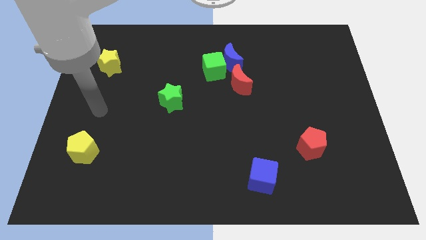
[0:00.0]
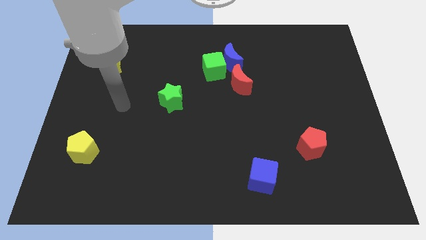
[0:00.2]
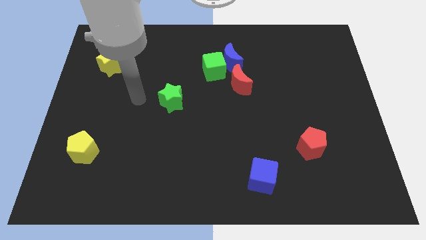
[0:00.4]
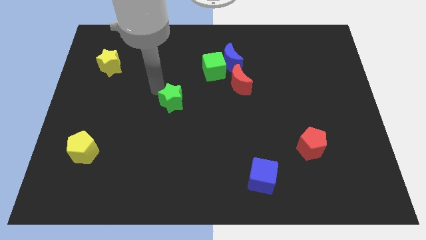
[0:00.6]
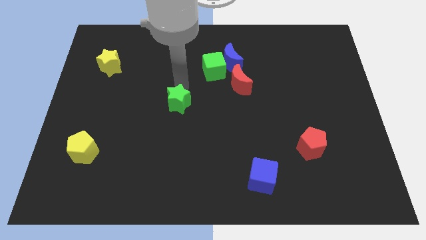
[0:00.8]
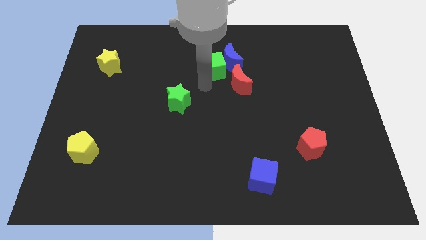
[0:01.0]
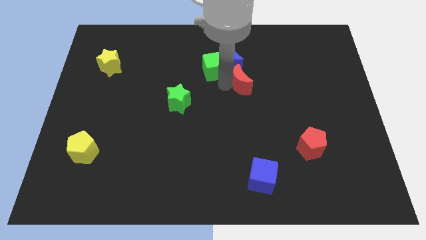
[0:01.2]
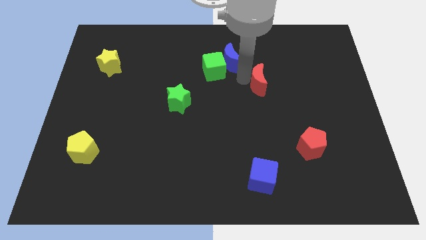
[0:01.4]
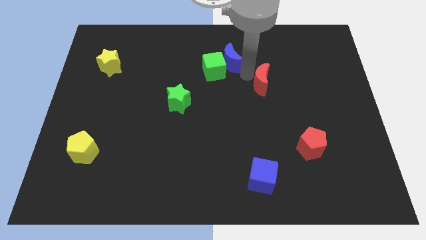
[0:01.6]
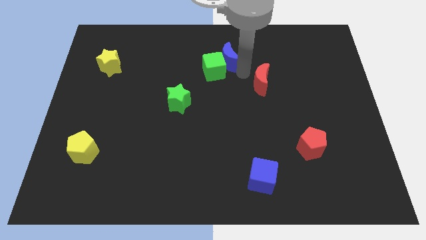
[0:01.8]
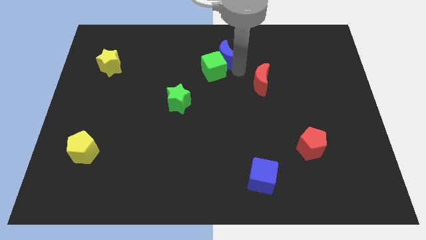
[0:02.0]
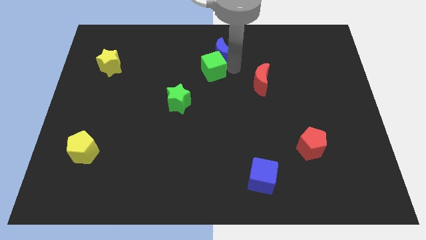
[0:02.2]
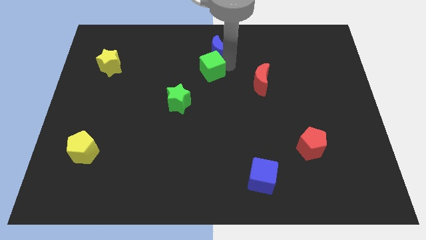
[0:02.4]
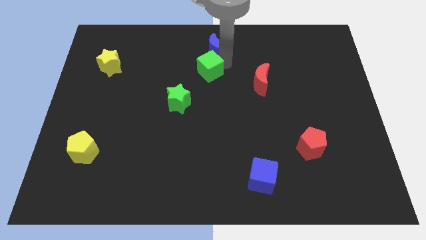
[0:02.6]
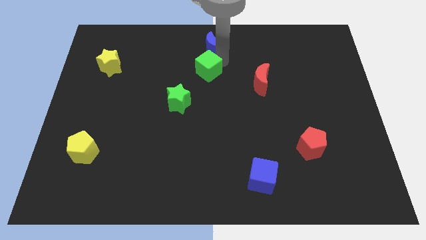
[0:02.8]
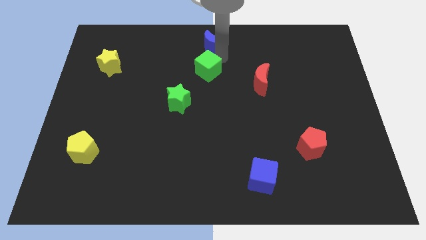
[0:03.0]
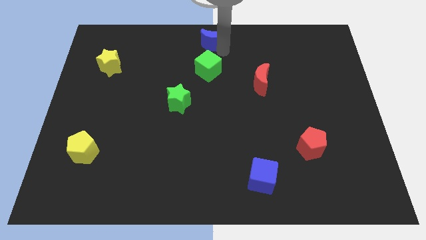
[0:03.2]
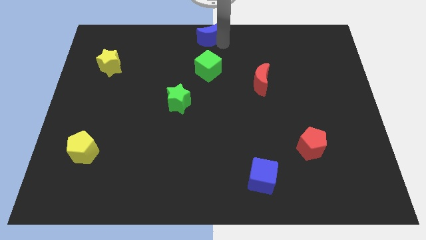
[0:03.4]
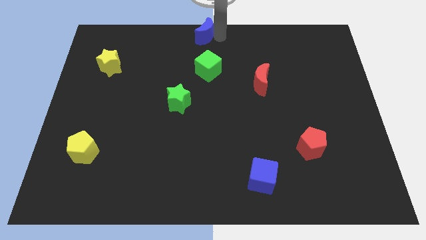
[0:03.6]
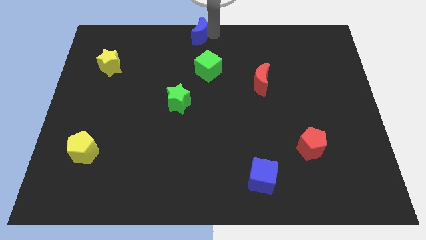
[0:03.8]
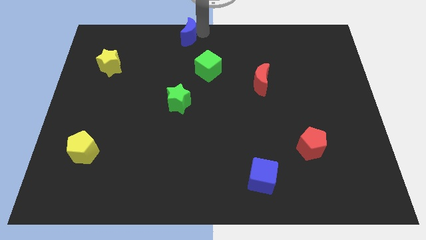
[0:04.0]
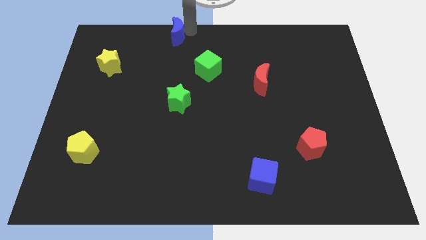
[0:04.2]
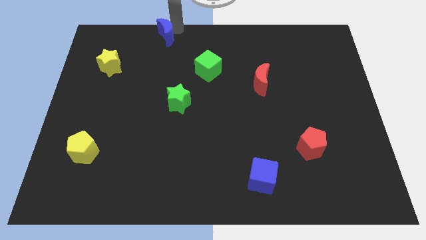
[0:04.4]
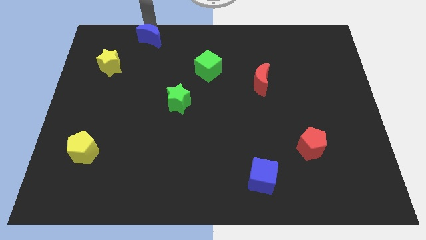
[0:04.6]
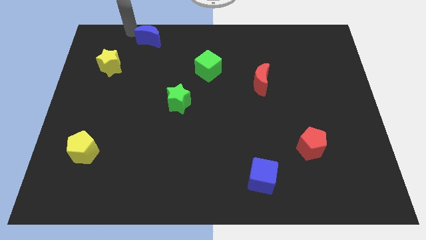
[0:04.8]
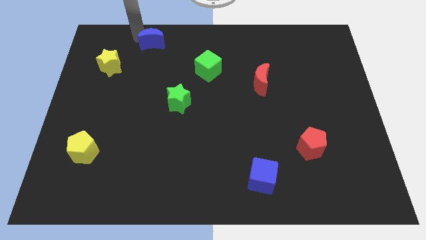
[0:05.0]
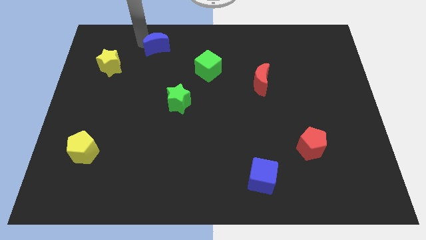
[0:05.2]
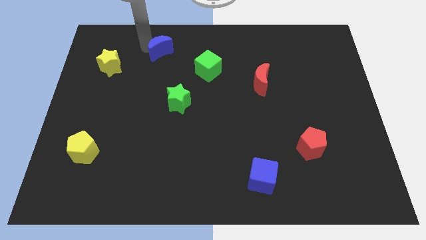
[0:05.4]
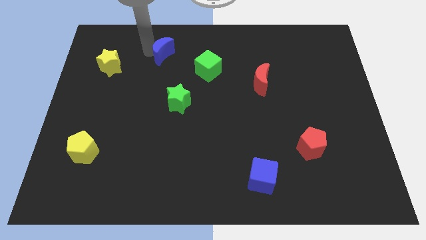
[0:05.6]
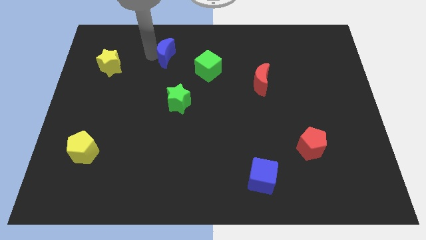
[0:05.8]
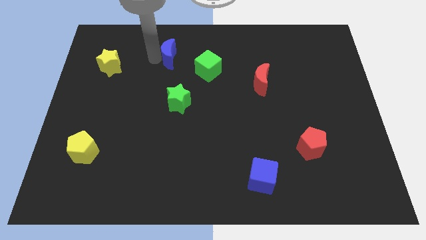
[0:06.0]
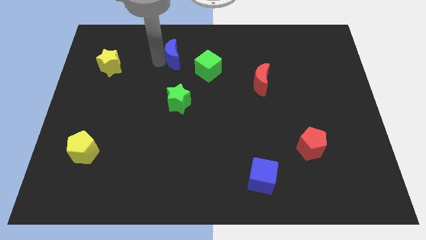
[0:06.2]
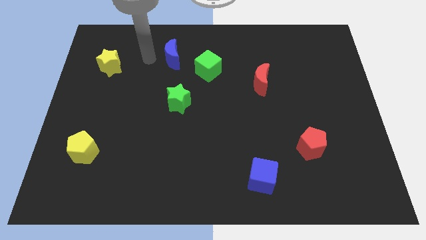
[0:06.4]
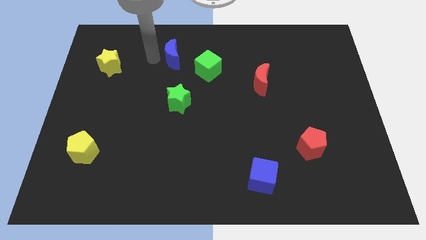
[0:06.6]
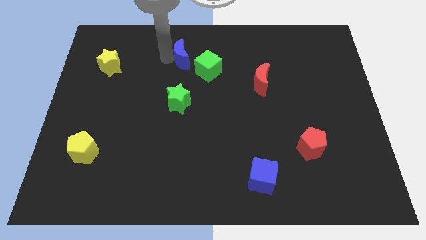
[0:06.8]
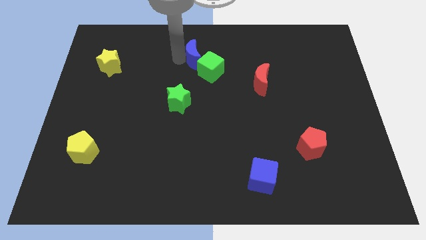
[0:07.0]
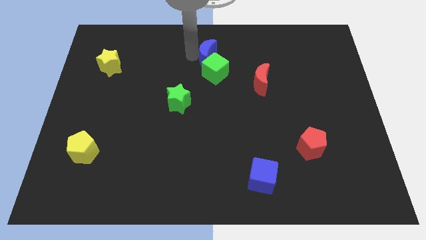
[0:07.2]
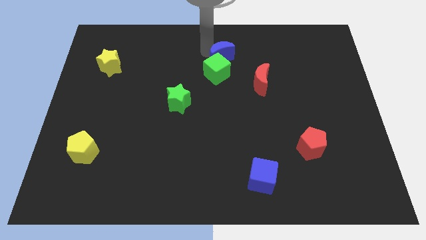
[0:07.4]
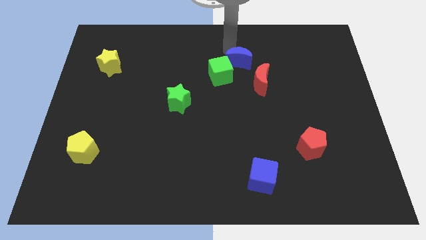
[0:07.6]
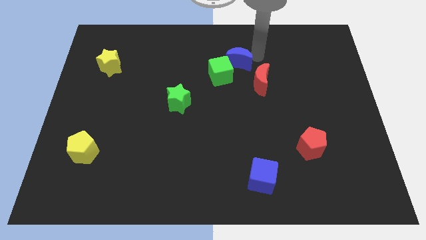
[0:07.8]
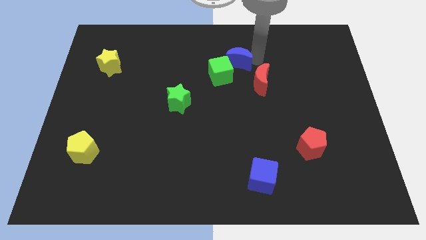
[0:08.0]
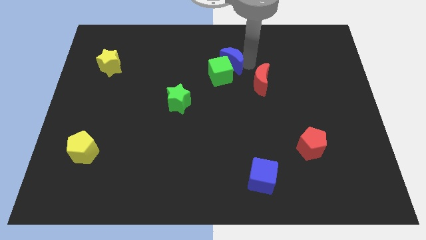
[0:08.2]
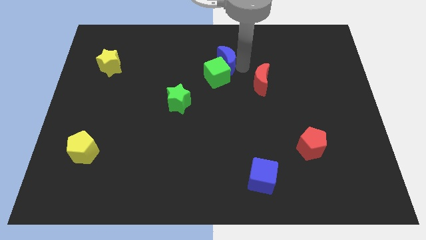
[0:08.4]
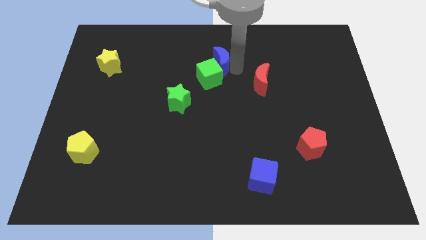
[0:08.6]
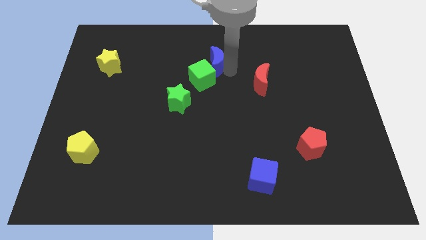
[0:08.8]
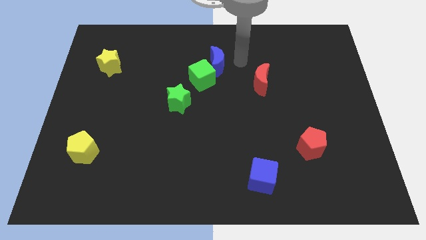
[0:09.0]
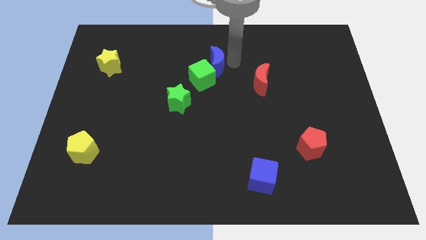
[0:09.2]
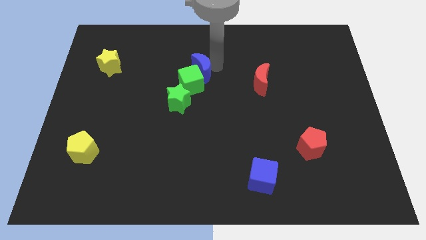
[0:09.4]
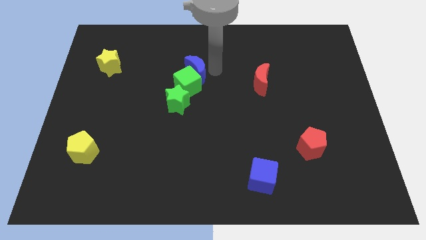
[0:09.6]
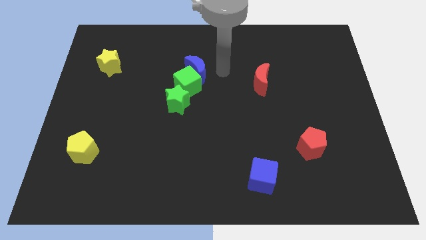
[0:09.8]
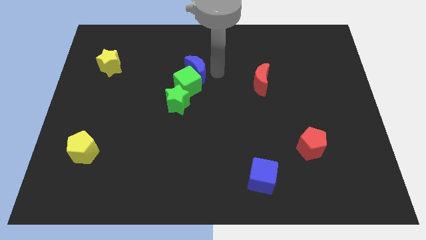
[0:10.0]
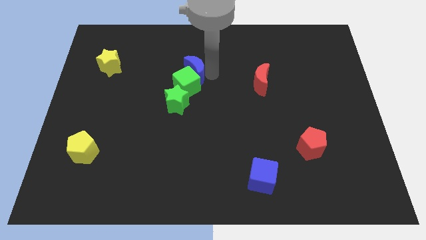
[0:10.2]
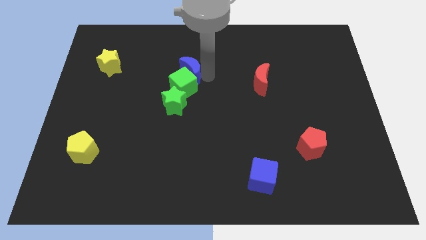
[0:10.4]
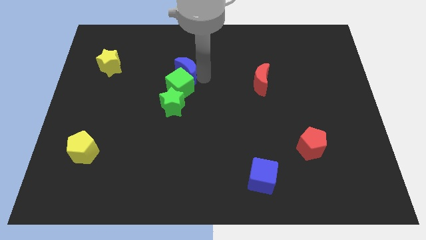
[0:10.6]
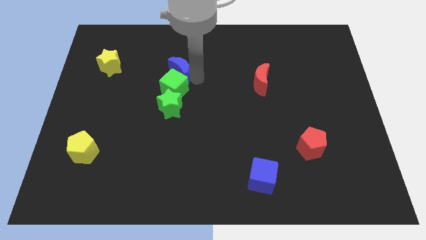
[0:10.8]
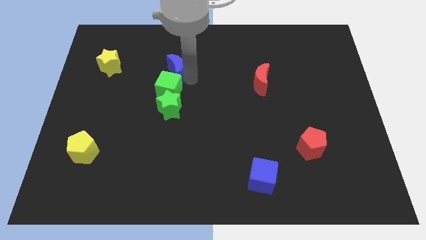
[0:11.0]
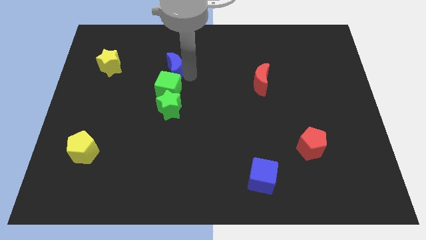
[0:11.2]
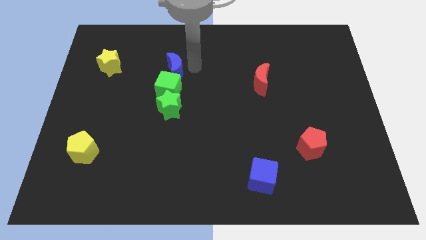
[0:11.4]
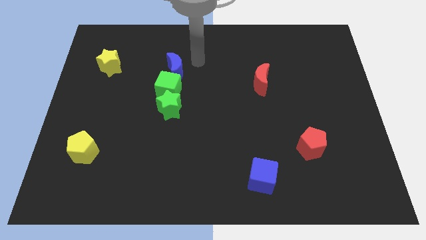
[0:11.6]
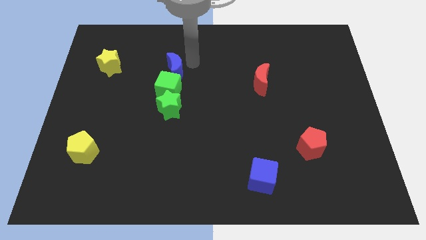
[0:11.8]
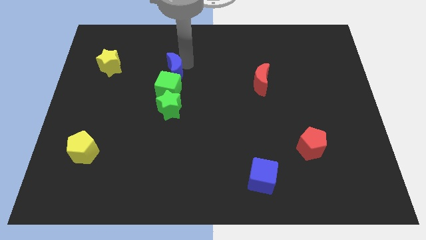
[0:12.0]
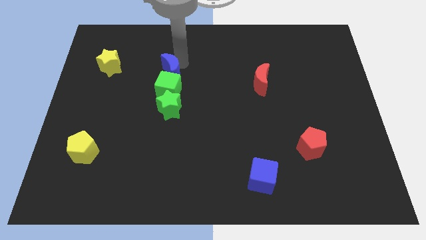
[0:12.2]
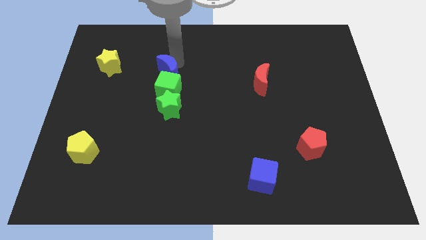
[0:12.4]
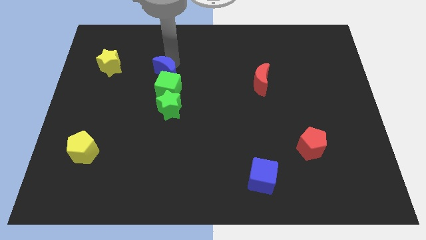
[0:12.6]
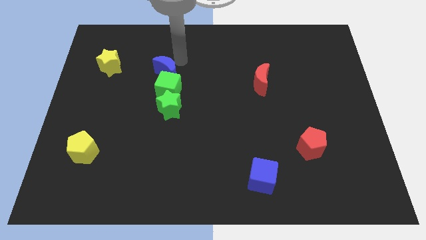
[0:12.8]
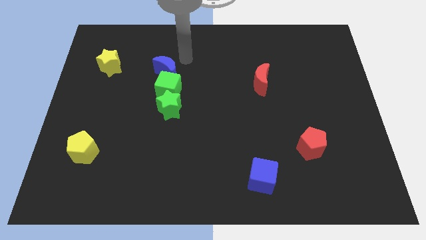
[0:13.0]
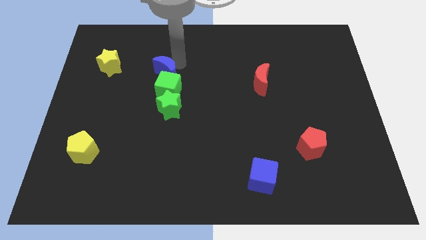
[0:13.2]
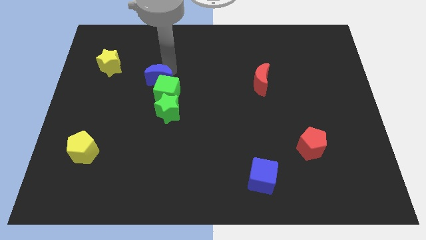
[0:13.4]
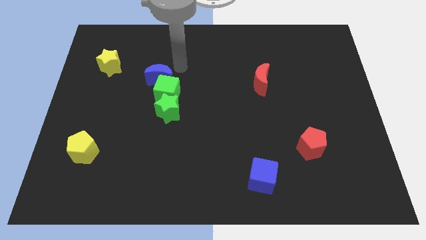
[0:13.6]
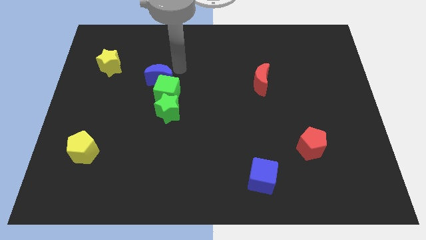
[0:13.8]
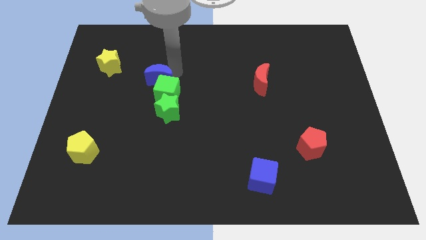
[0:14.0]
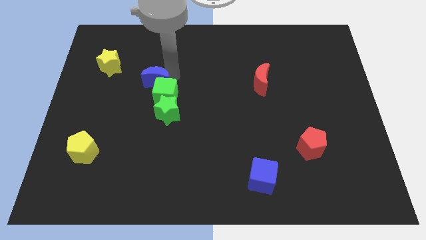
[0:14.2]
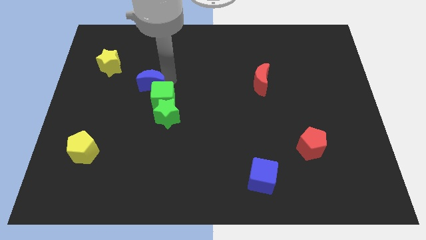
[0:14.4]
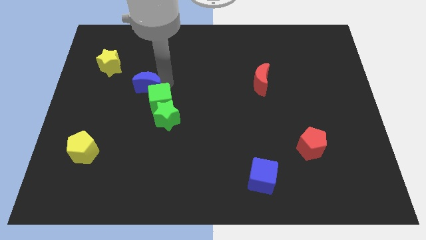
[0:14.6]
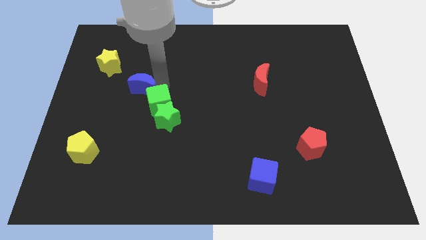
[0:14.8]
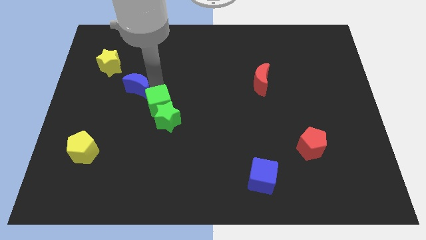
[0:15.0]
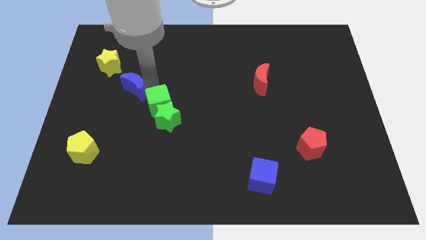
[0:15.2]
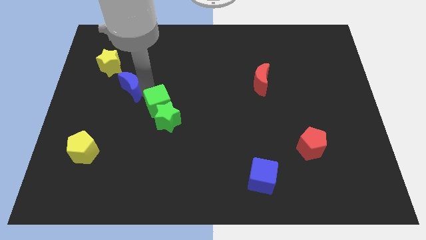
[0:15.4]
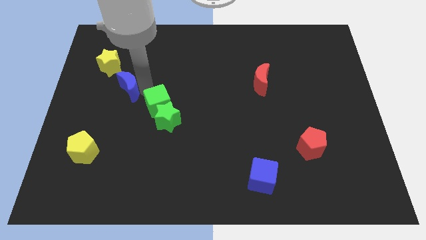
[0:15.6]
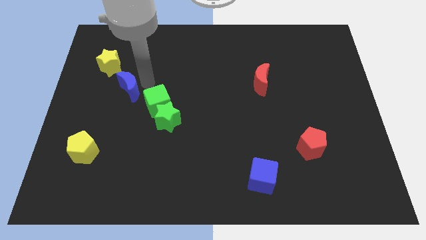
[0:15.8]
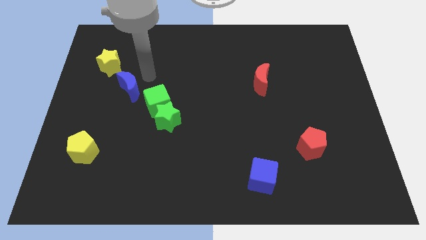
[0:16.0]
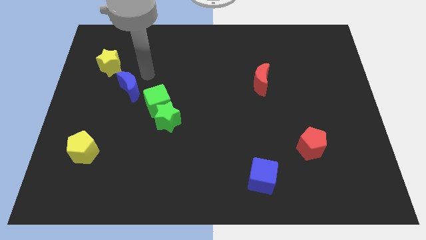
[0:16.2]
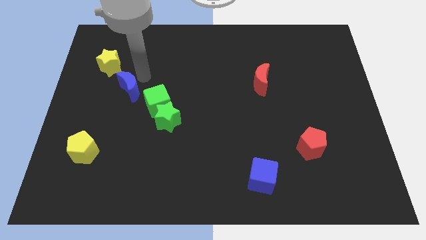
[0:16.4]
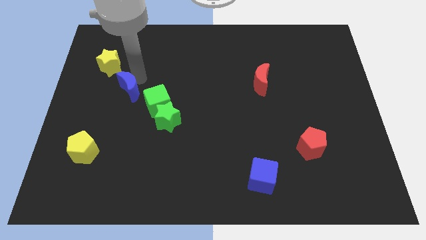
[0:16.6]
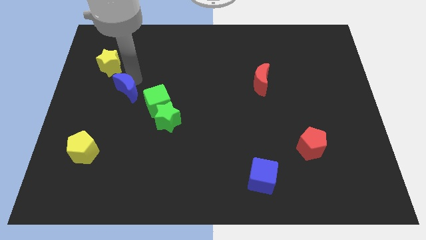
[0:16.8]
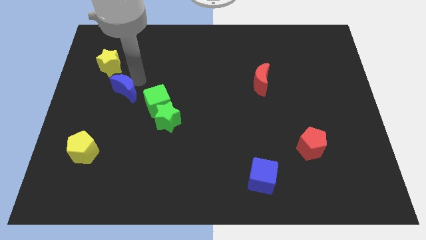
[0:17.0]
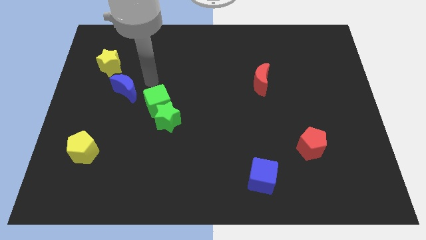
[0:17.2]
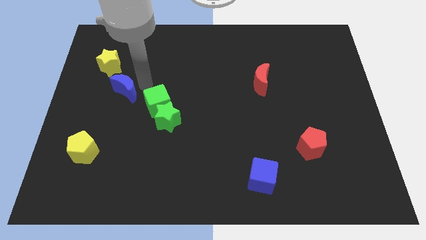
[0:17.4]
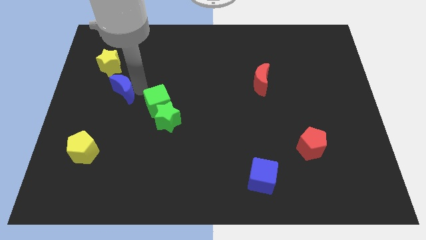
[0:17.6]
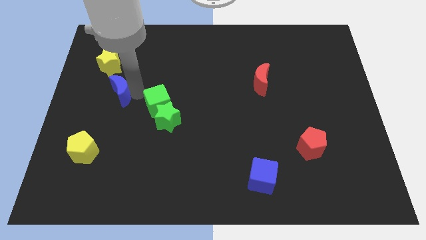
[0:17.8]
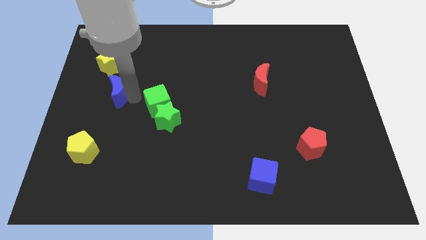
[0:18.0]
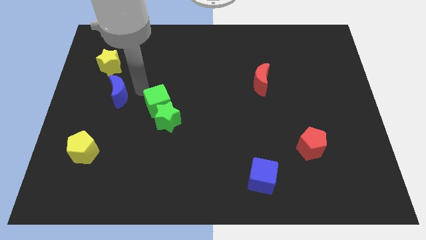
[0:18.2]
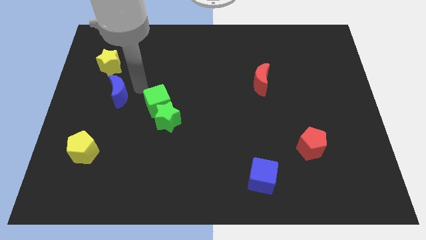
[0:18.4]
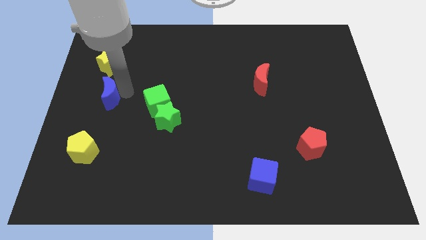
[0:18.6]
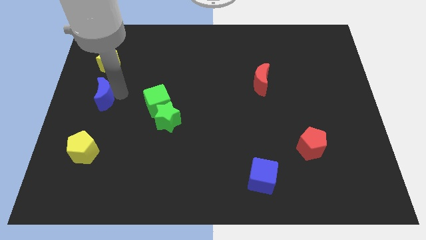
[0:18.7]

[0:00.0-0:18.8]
put the blue moon to the left side of the board
